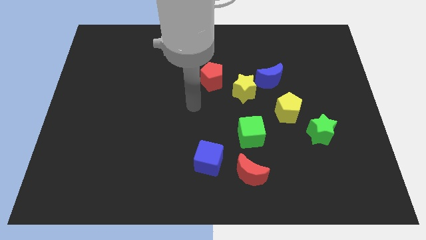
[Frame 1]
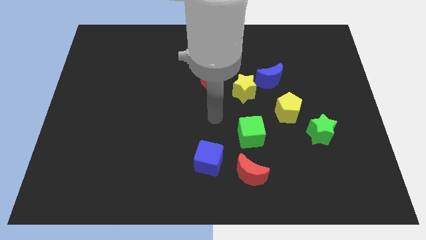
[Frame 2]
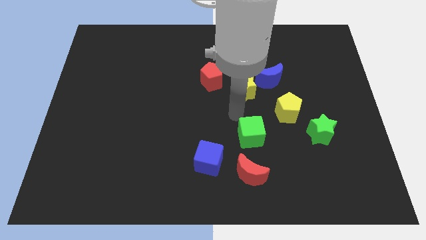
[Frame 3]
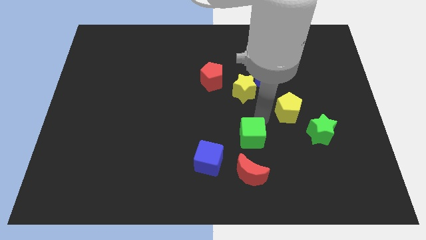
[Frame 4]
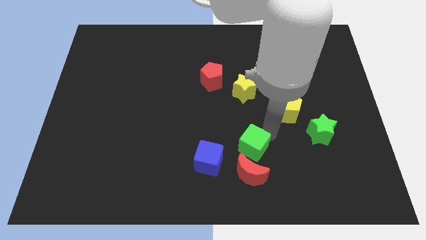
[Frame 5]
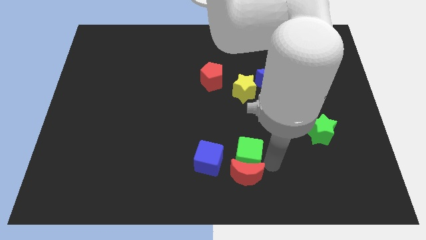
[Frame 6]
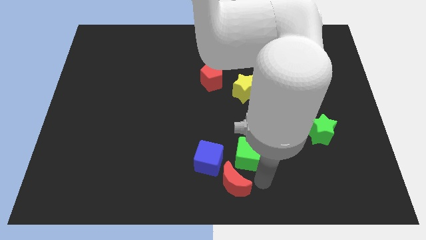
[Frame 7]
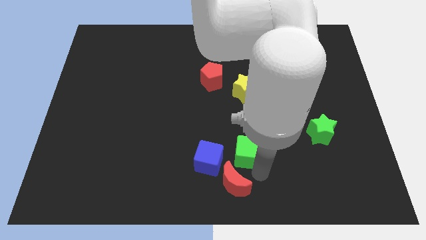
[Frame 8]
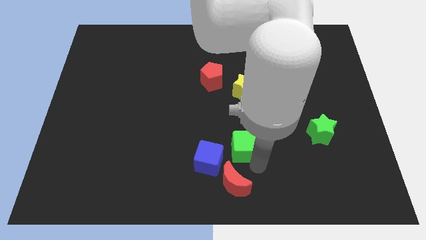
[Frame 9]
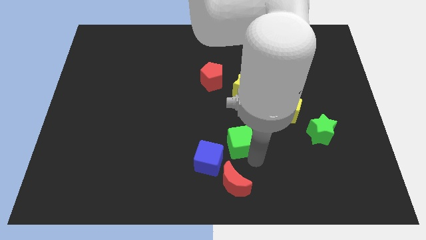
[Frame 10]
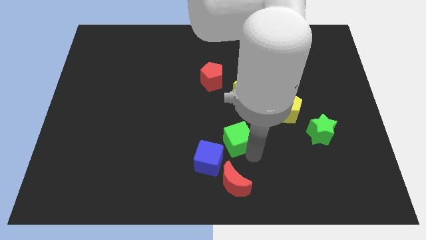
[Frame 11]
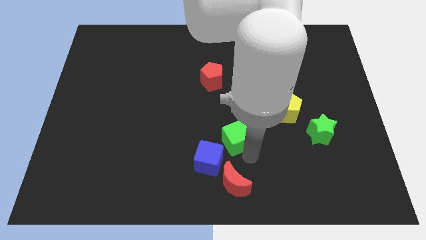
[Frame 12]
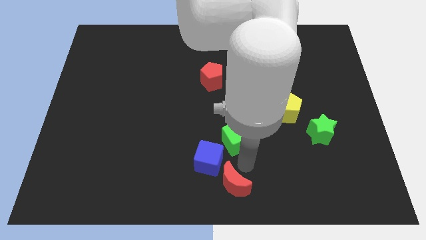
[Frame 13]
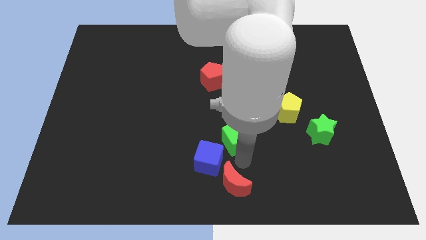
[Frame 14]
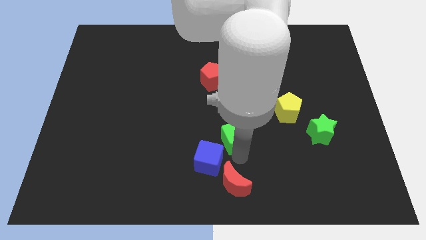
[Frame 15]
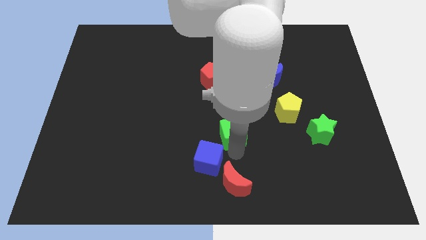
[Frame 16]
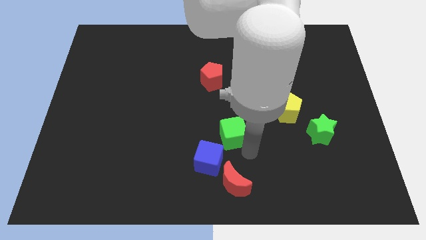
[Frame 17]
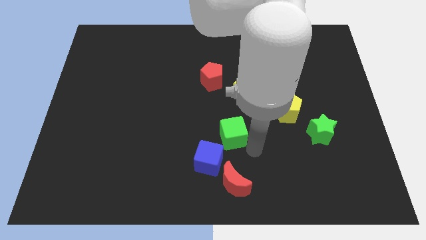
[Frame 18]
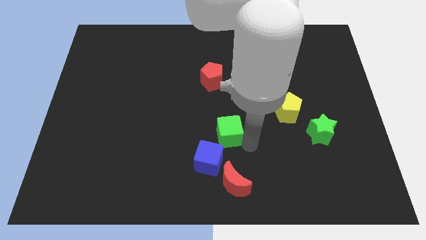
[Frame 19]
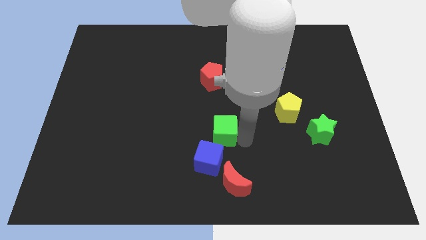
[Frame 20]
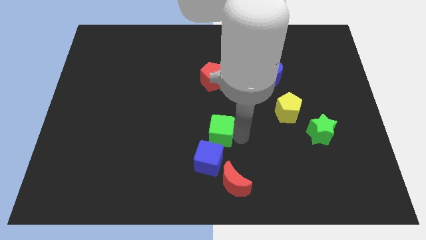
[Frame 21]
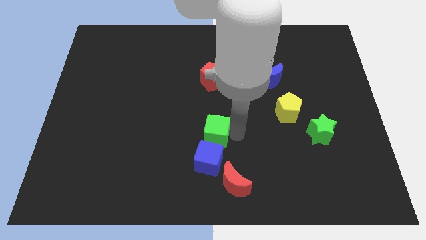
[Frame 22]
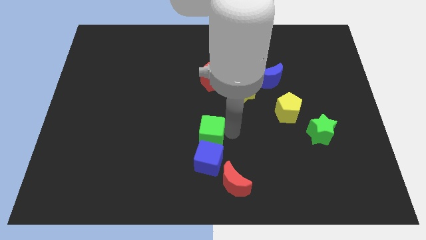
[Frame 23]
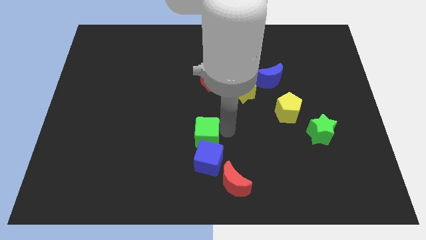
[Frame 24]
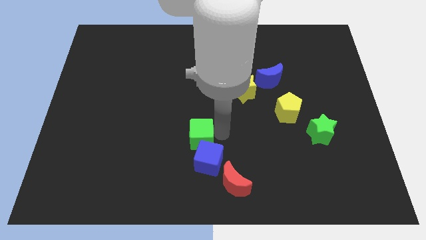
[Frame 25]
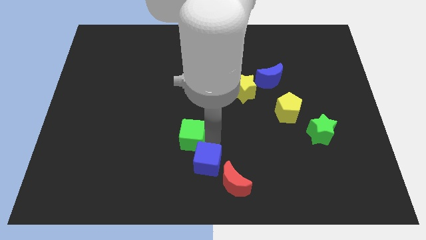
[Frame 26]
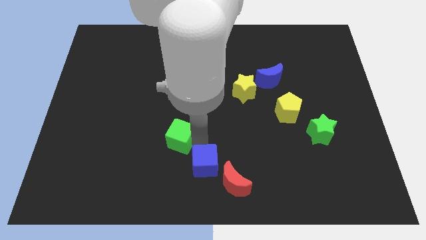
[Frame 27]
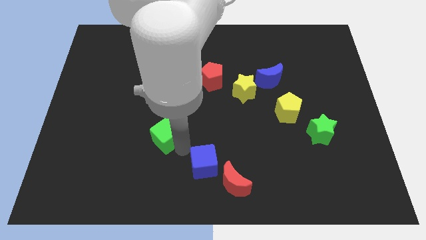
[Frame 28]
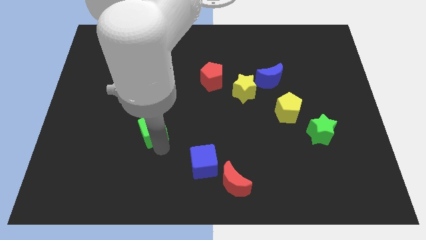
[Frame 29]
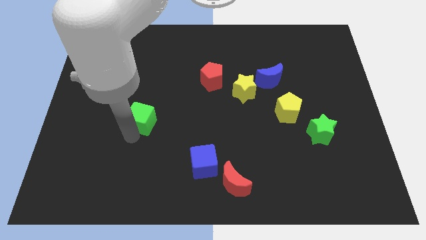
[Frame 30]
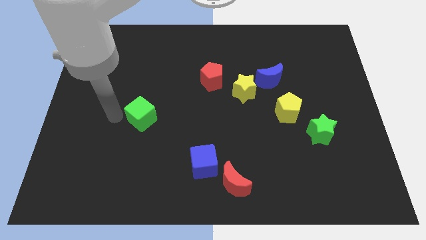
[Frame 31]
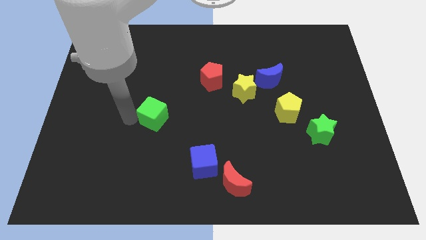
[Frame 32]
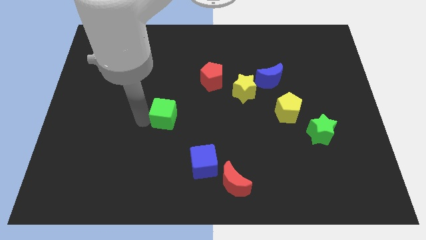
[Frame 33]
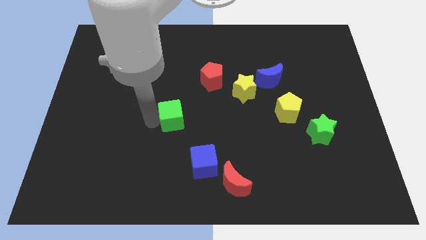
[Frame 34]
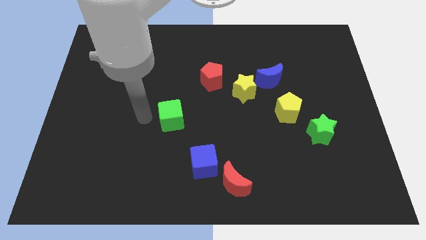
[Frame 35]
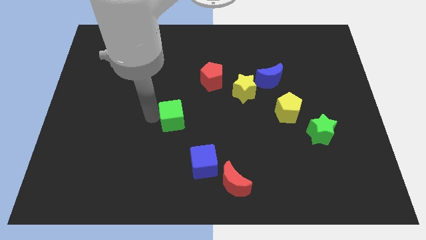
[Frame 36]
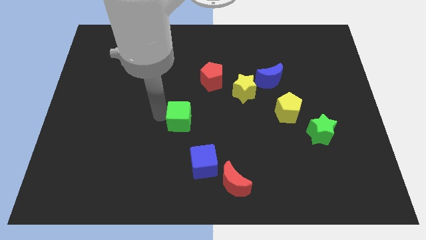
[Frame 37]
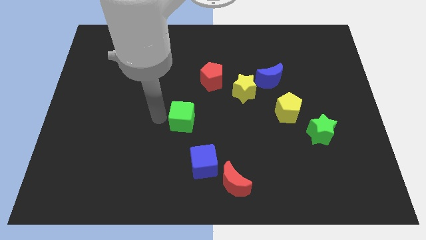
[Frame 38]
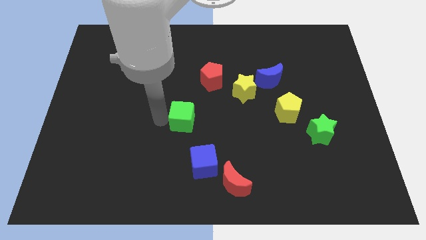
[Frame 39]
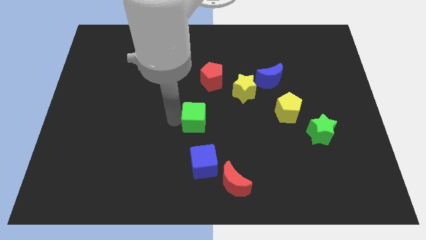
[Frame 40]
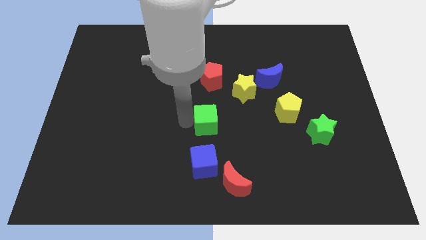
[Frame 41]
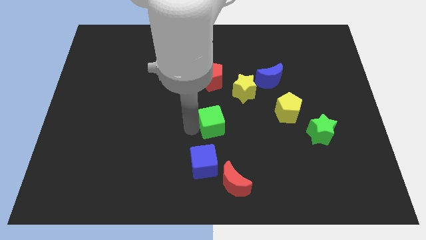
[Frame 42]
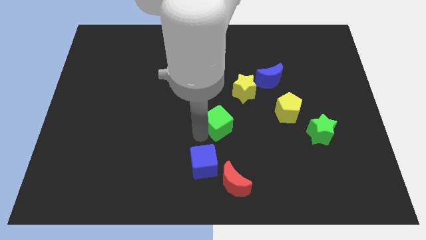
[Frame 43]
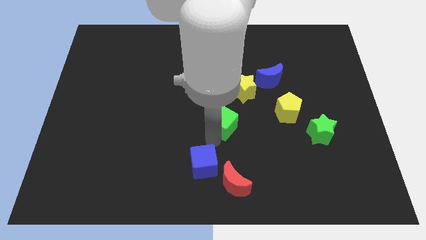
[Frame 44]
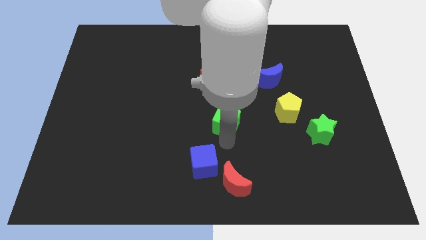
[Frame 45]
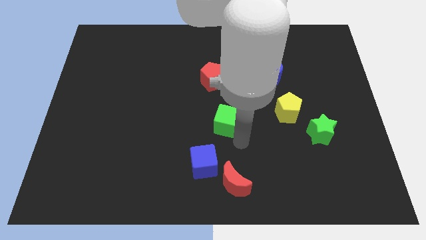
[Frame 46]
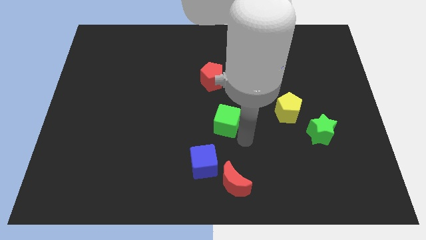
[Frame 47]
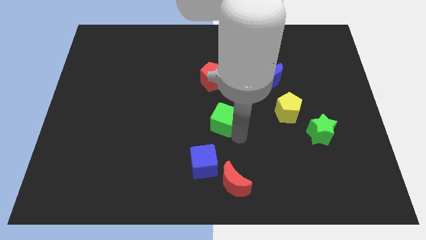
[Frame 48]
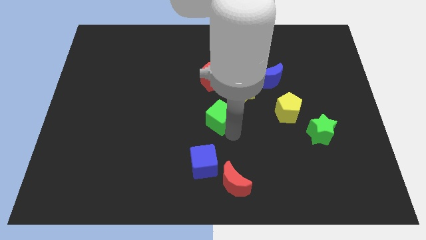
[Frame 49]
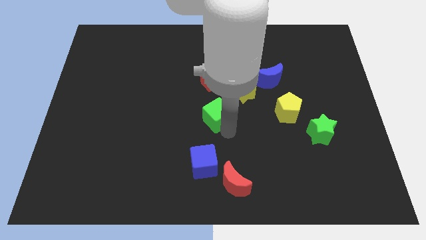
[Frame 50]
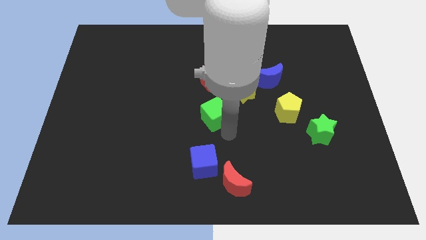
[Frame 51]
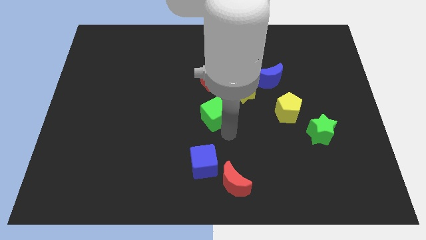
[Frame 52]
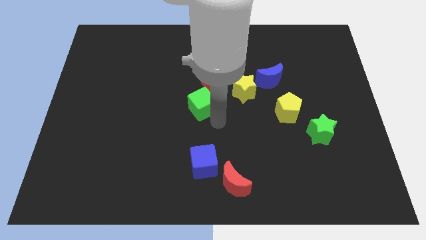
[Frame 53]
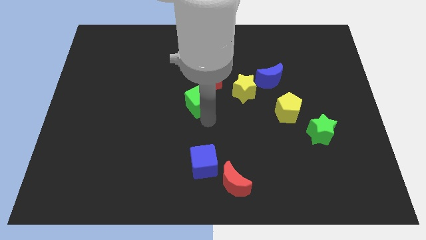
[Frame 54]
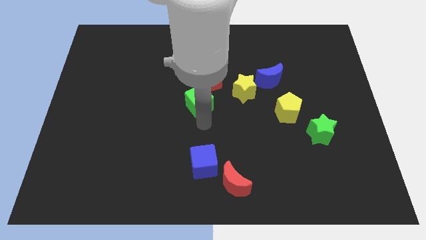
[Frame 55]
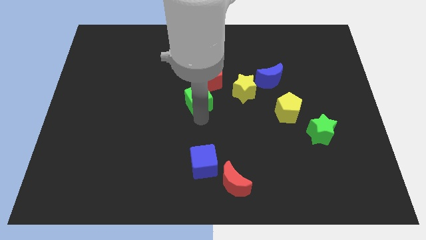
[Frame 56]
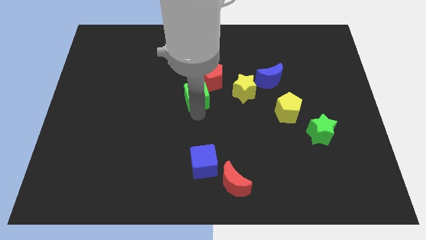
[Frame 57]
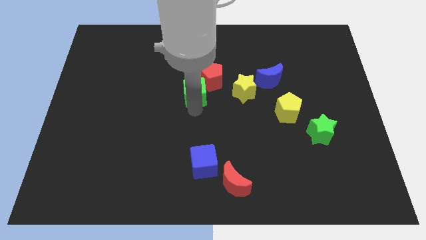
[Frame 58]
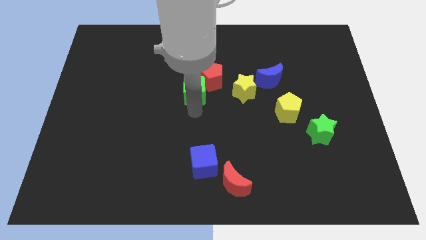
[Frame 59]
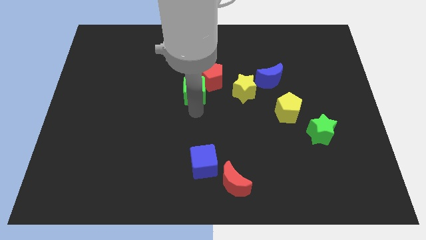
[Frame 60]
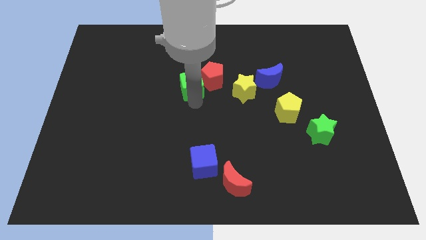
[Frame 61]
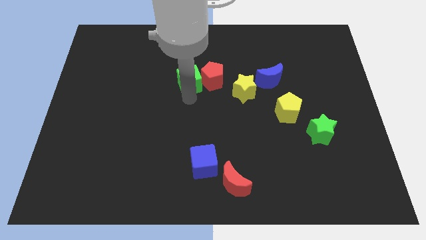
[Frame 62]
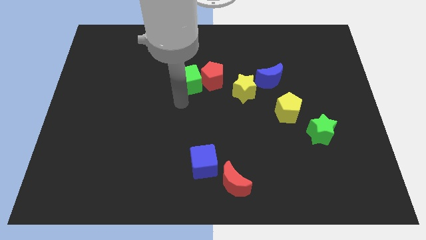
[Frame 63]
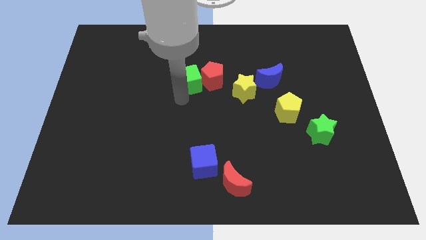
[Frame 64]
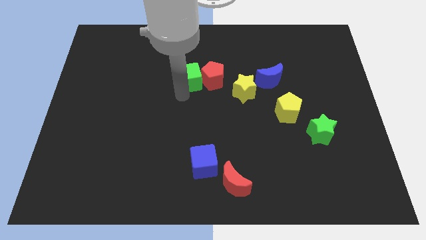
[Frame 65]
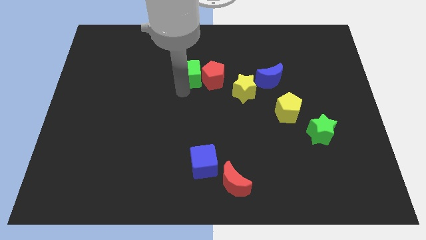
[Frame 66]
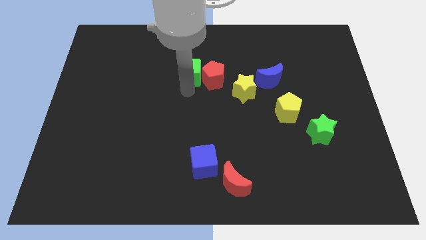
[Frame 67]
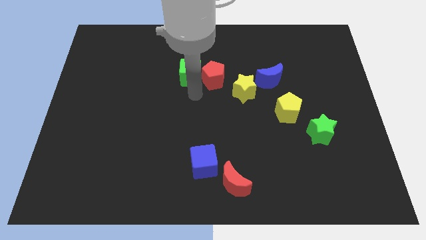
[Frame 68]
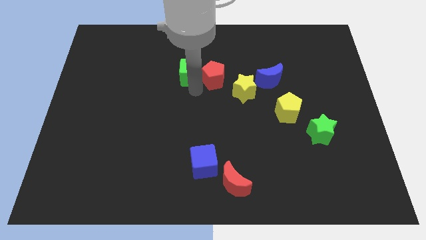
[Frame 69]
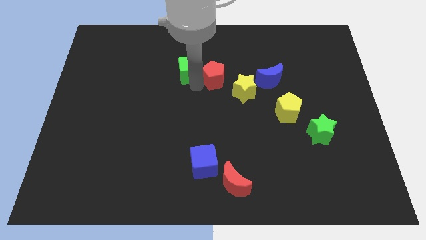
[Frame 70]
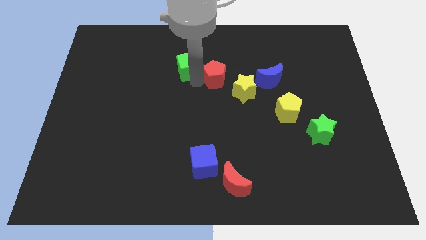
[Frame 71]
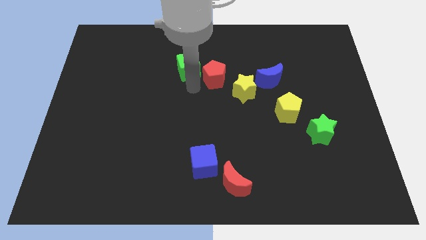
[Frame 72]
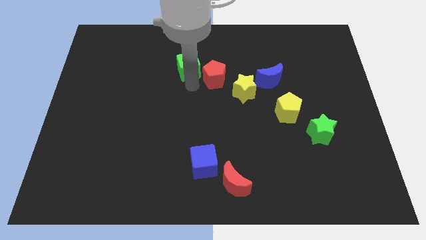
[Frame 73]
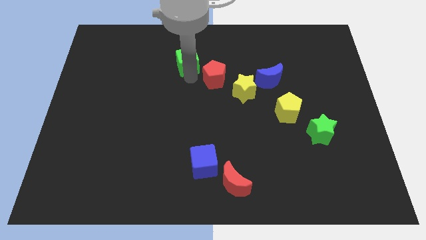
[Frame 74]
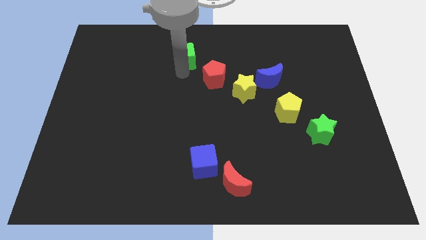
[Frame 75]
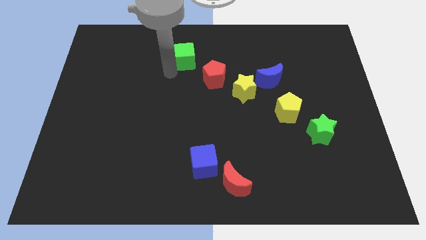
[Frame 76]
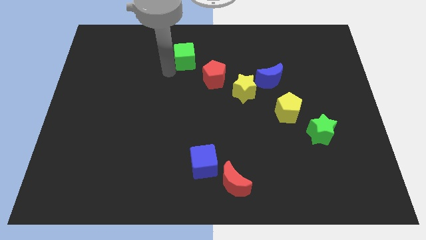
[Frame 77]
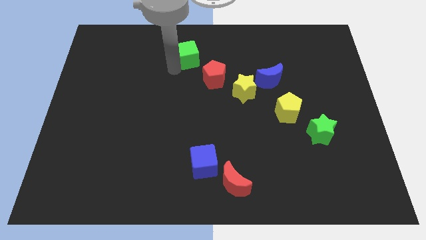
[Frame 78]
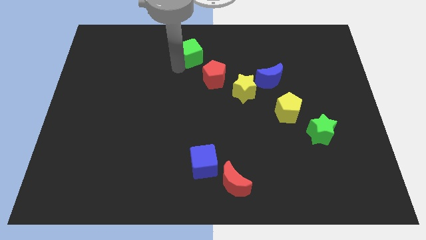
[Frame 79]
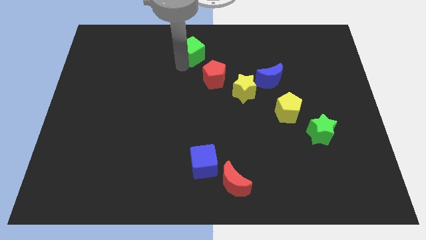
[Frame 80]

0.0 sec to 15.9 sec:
push the green cube to the top side
